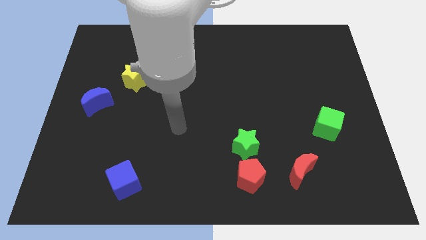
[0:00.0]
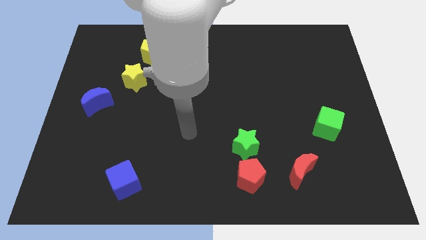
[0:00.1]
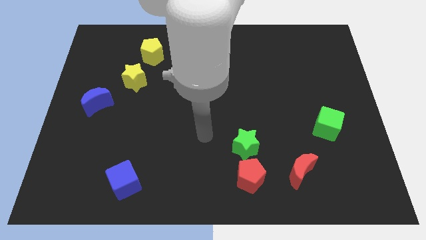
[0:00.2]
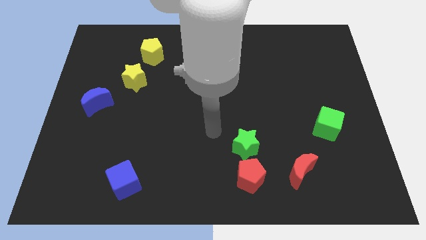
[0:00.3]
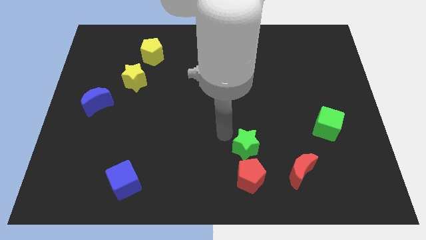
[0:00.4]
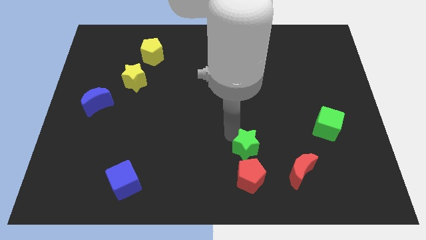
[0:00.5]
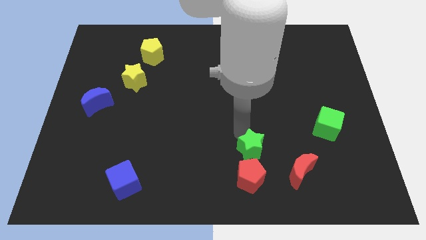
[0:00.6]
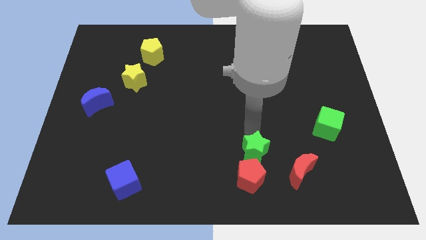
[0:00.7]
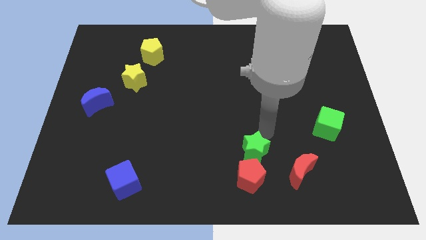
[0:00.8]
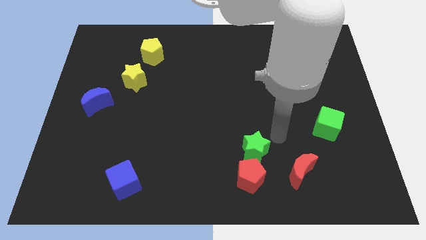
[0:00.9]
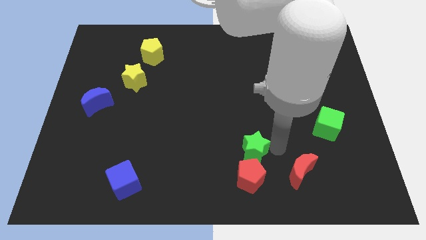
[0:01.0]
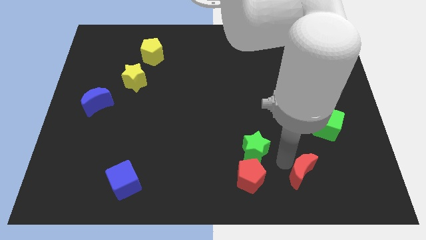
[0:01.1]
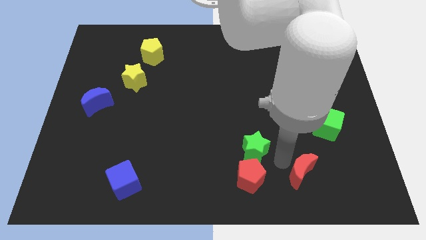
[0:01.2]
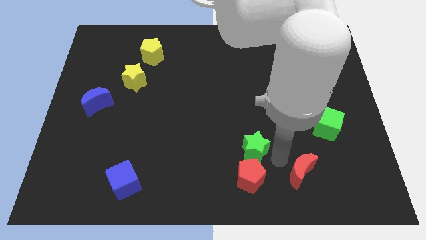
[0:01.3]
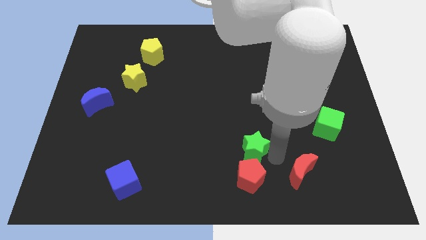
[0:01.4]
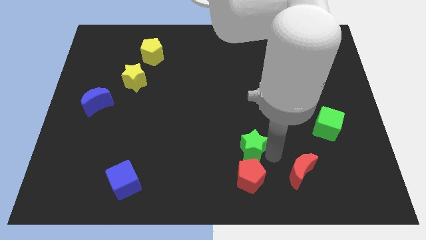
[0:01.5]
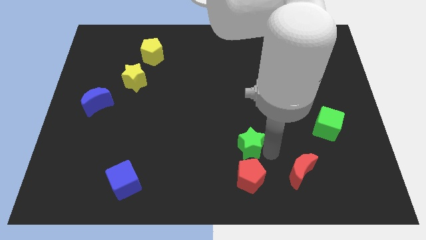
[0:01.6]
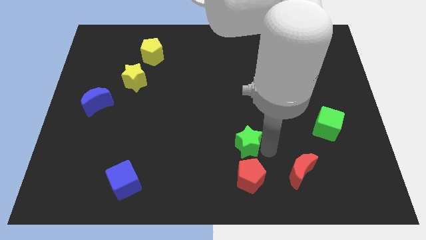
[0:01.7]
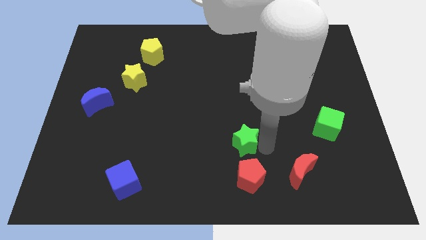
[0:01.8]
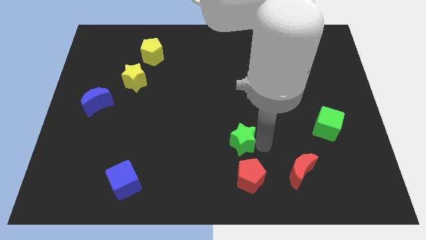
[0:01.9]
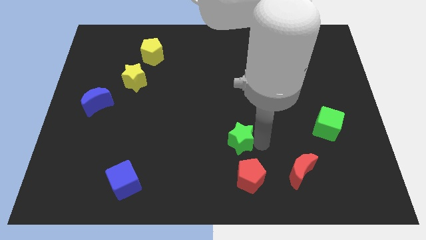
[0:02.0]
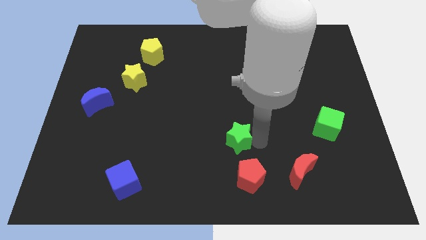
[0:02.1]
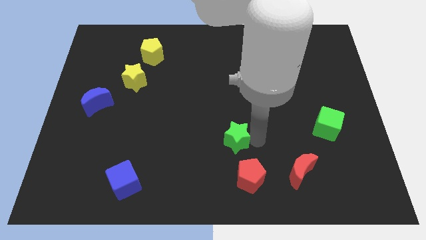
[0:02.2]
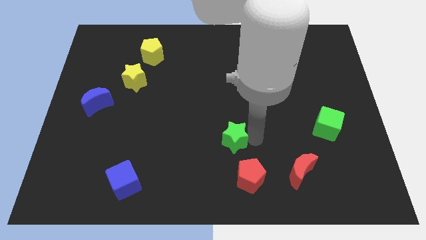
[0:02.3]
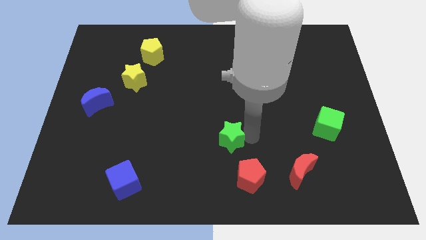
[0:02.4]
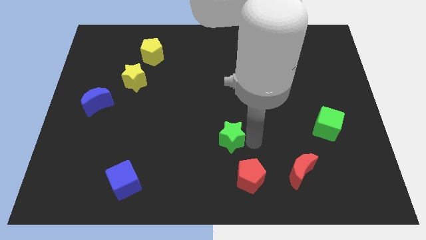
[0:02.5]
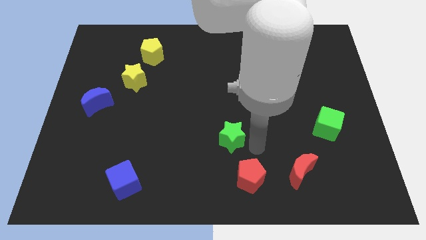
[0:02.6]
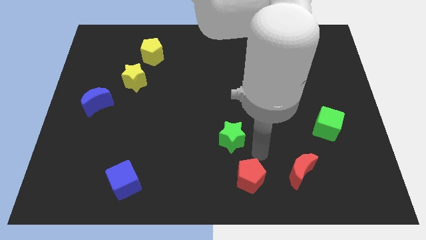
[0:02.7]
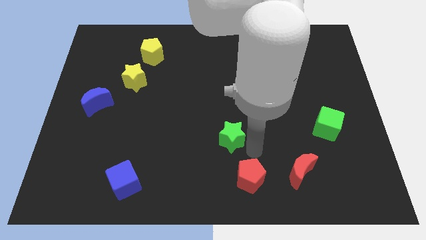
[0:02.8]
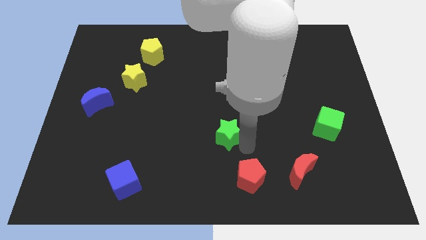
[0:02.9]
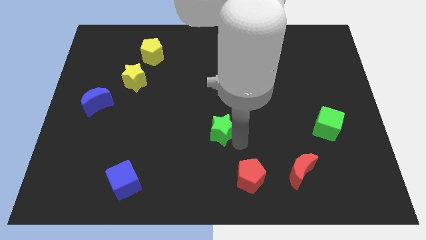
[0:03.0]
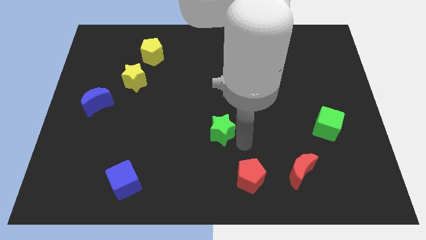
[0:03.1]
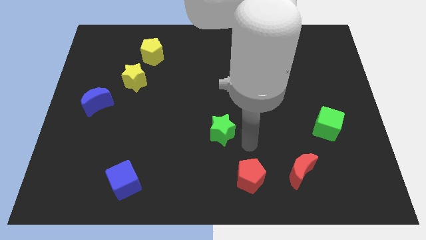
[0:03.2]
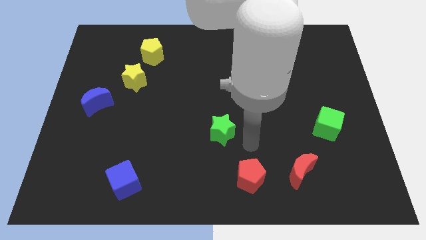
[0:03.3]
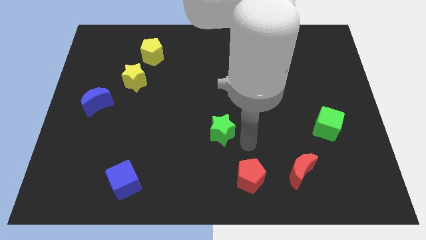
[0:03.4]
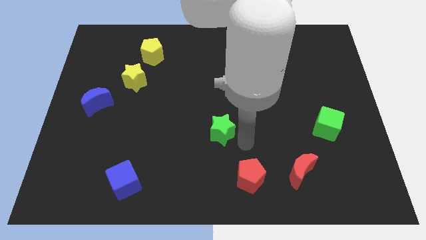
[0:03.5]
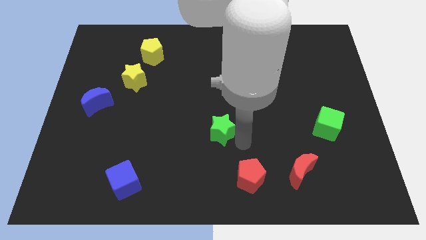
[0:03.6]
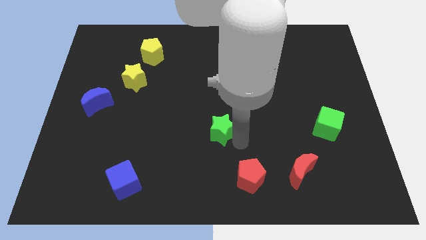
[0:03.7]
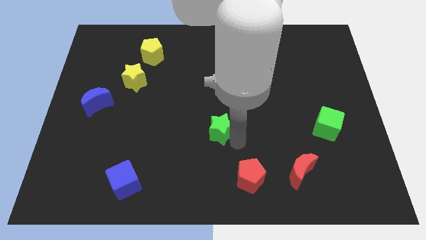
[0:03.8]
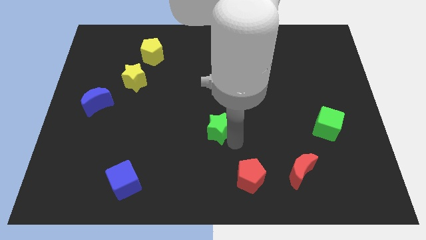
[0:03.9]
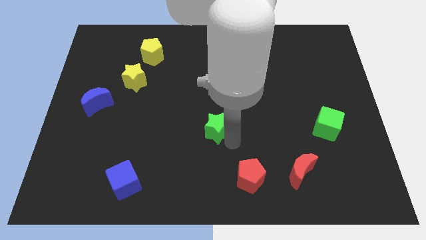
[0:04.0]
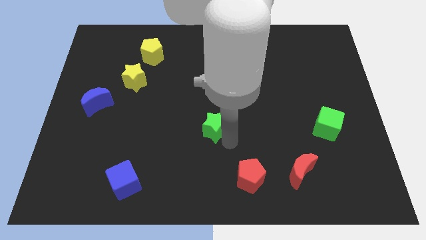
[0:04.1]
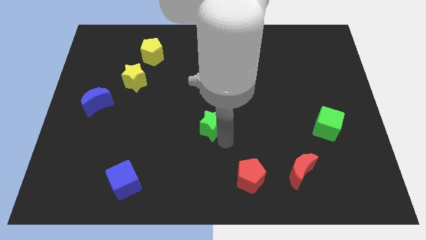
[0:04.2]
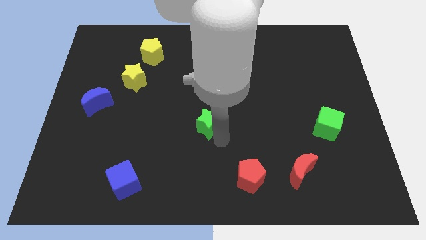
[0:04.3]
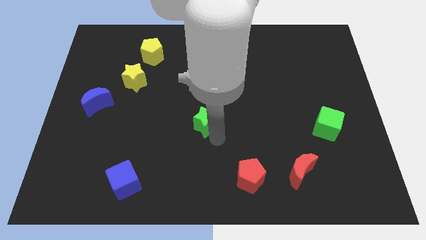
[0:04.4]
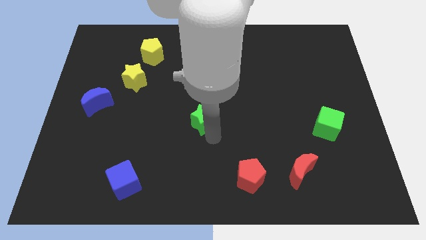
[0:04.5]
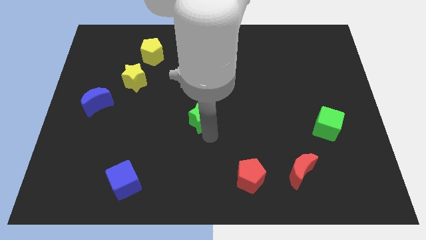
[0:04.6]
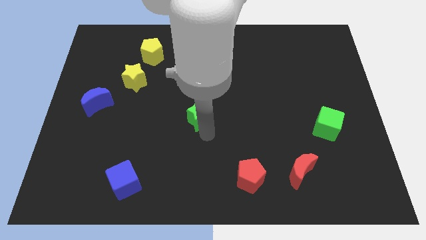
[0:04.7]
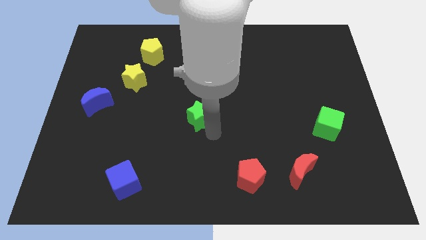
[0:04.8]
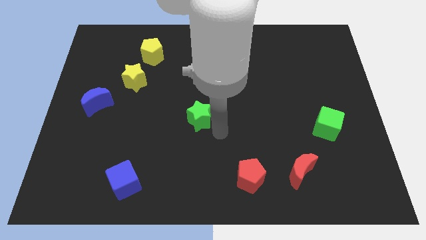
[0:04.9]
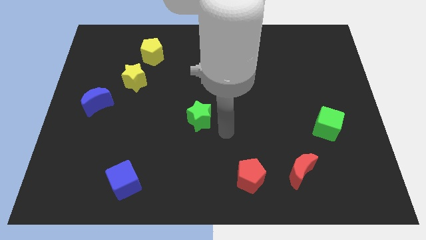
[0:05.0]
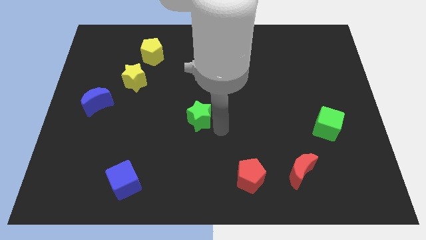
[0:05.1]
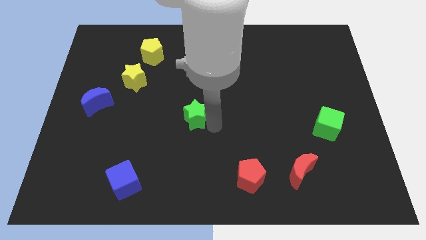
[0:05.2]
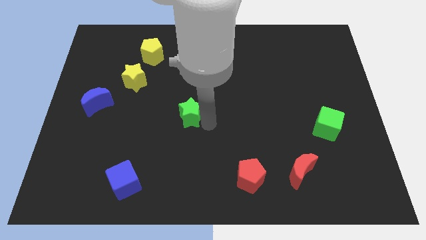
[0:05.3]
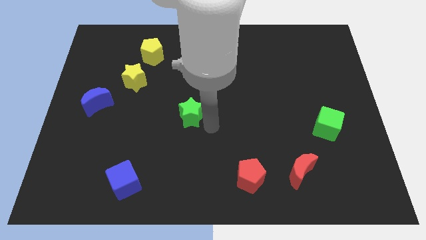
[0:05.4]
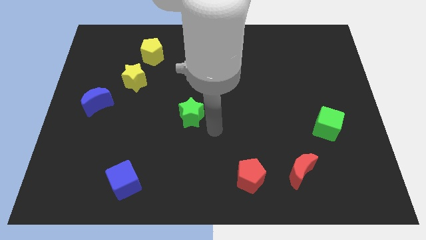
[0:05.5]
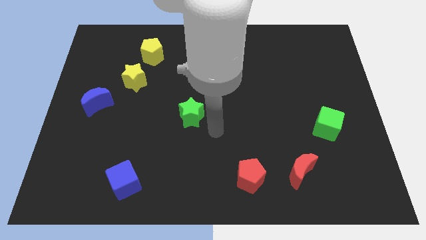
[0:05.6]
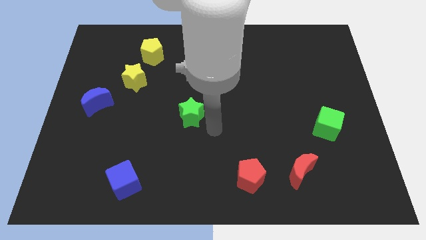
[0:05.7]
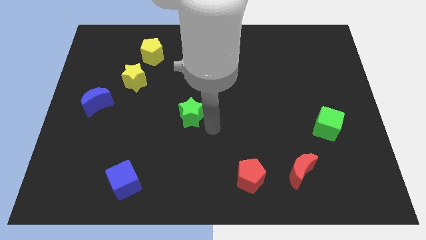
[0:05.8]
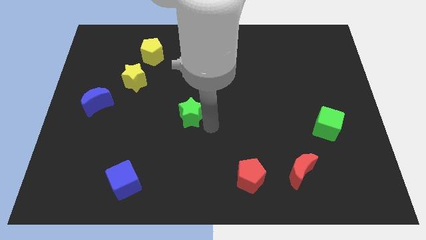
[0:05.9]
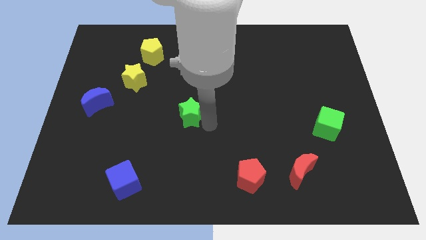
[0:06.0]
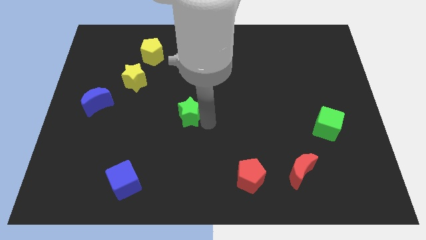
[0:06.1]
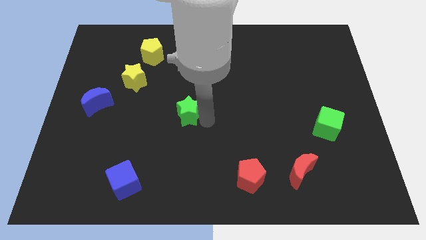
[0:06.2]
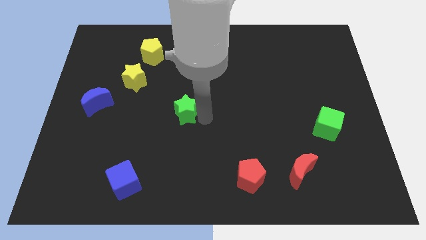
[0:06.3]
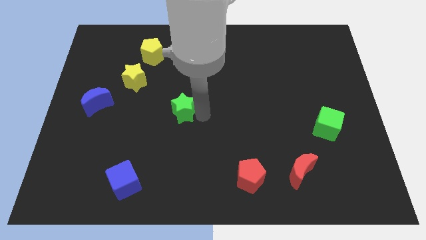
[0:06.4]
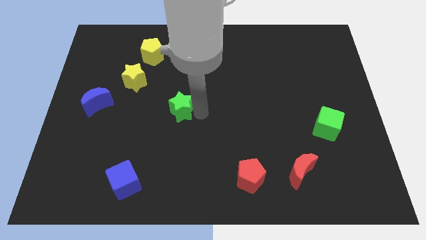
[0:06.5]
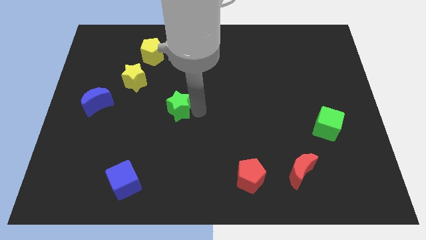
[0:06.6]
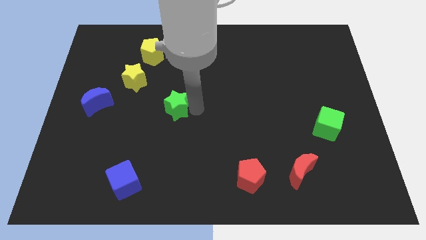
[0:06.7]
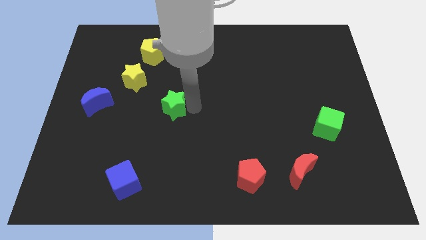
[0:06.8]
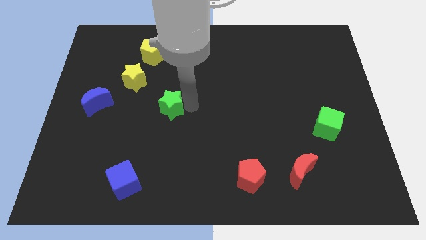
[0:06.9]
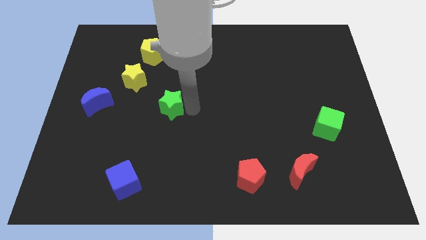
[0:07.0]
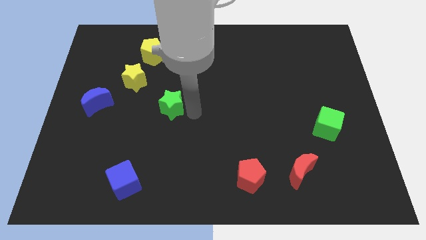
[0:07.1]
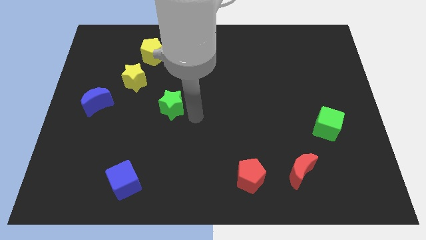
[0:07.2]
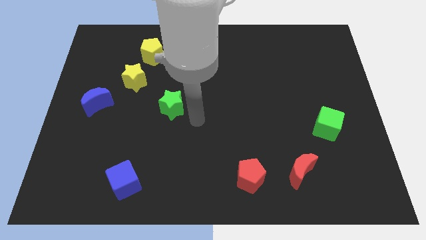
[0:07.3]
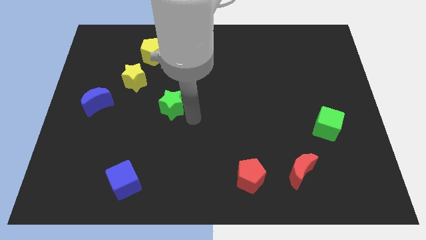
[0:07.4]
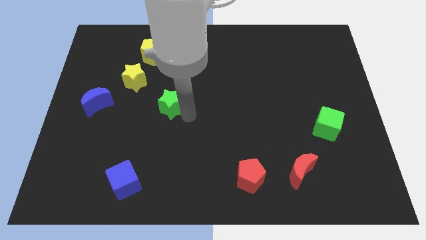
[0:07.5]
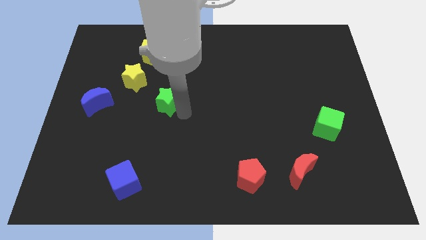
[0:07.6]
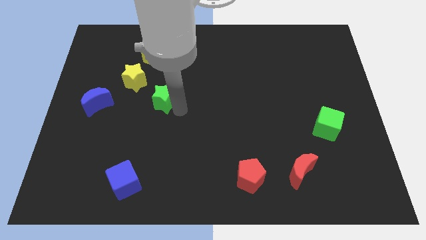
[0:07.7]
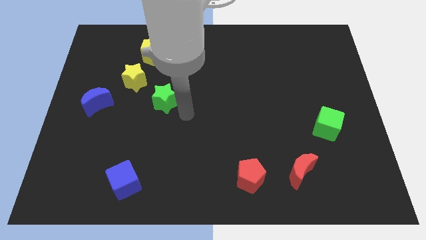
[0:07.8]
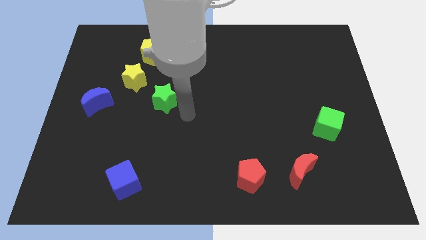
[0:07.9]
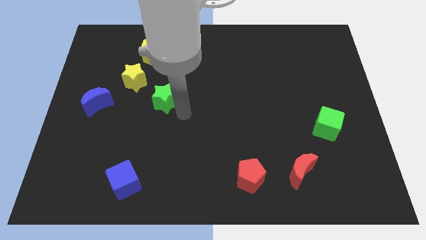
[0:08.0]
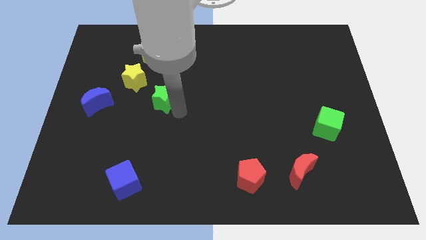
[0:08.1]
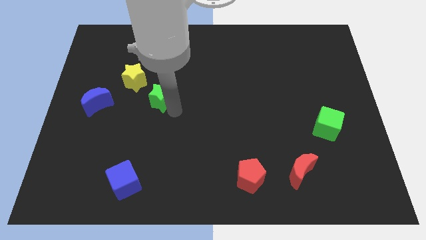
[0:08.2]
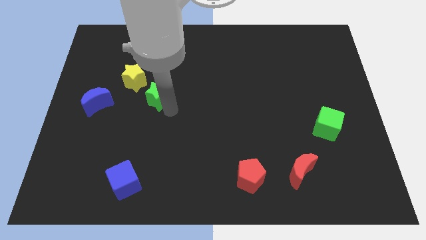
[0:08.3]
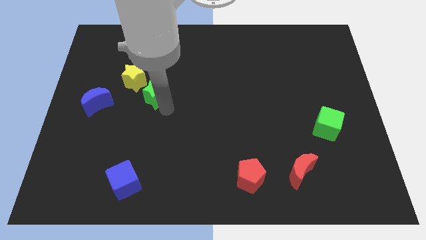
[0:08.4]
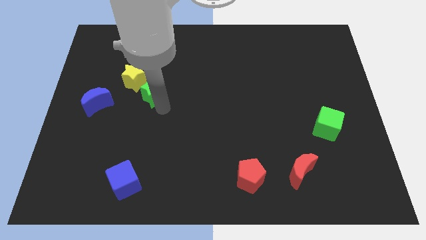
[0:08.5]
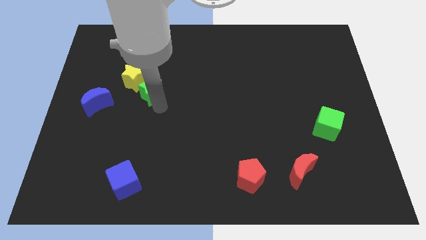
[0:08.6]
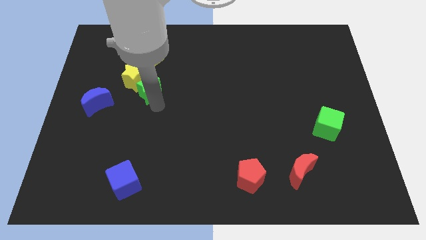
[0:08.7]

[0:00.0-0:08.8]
push the green star close to the yellow star
